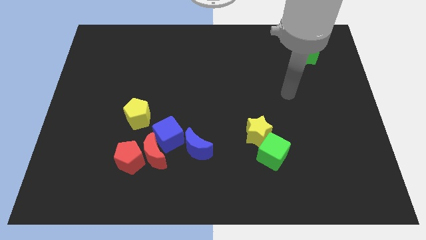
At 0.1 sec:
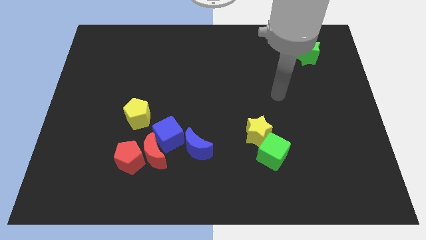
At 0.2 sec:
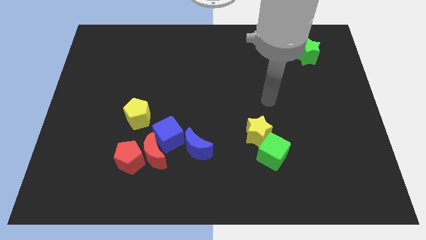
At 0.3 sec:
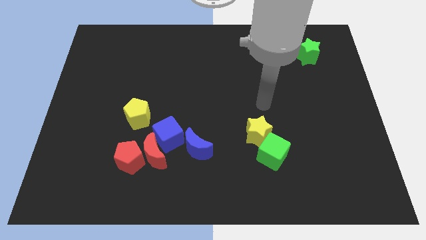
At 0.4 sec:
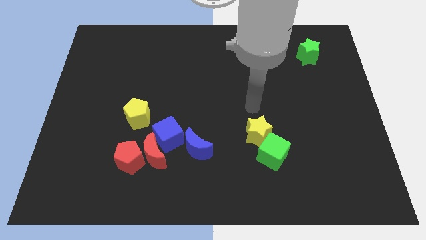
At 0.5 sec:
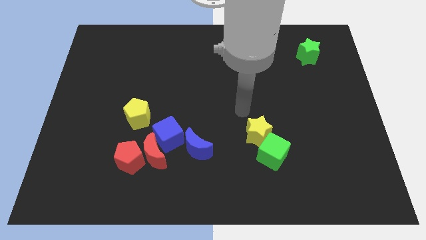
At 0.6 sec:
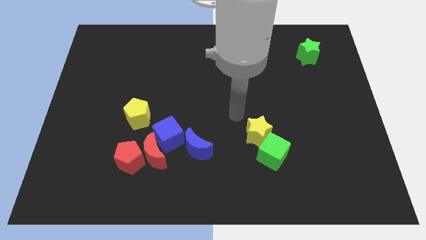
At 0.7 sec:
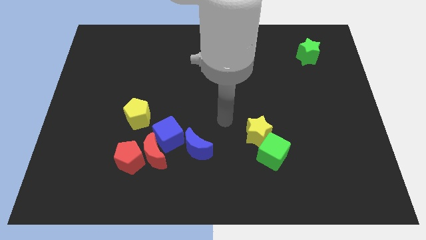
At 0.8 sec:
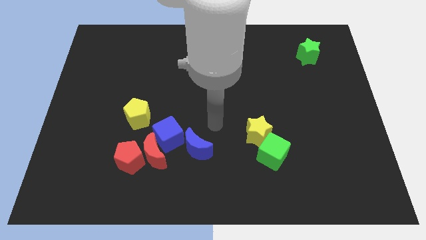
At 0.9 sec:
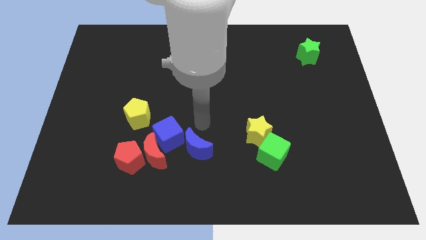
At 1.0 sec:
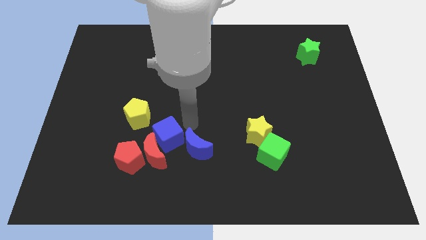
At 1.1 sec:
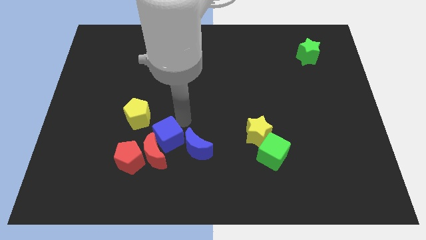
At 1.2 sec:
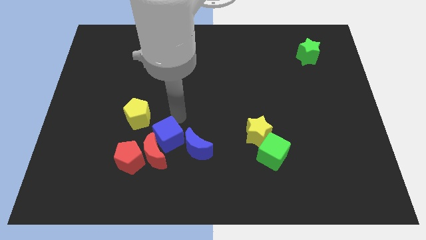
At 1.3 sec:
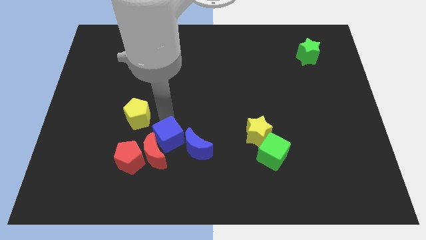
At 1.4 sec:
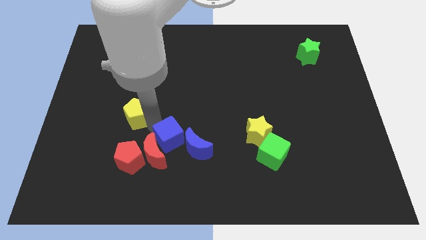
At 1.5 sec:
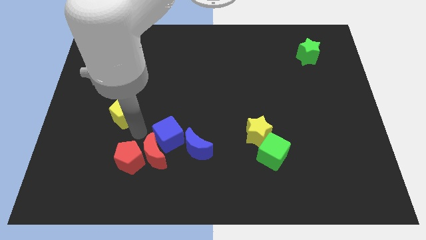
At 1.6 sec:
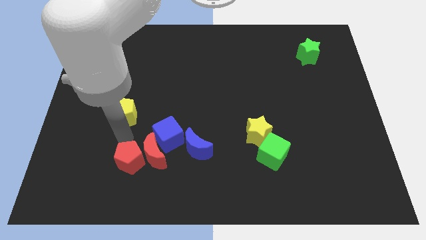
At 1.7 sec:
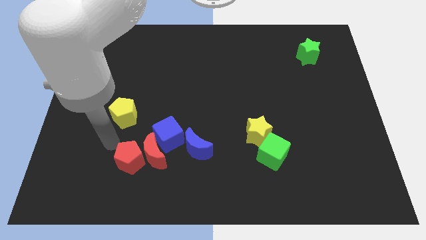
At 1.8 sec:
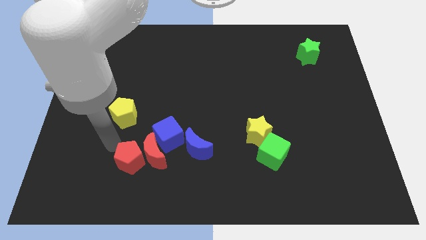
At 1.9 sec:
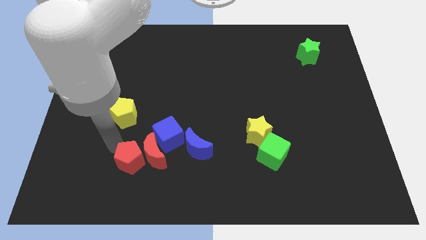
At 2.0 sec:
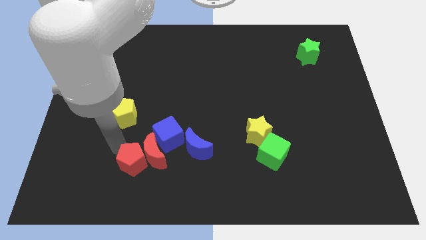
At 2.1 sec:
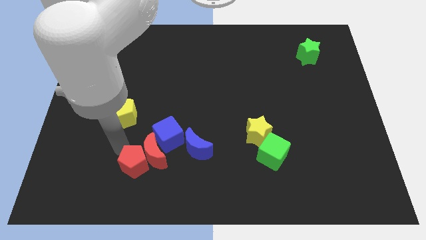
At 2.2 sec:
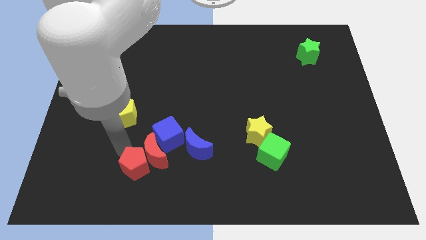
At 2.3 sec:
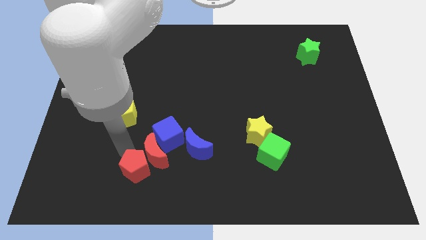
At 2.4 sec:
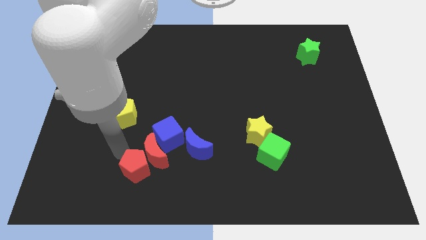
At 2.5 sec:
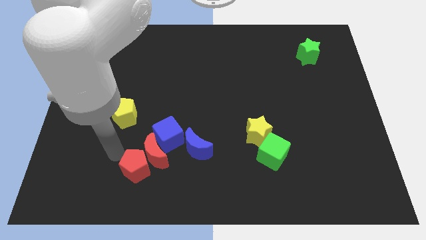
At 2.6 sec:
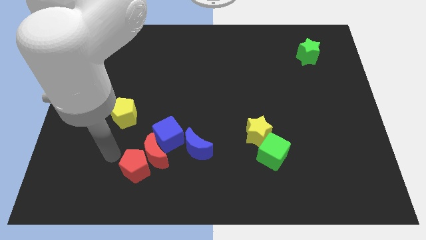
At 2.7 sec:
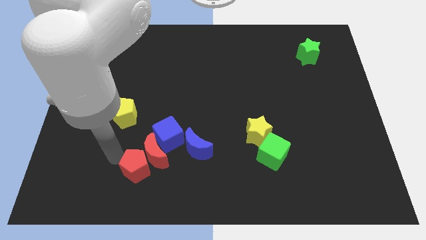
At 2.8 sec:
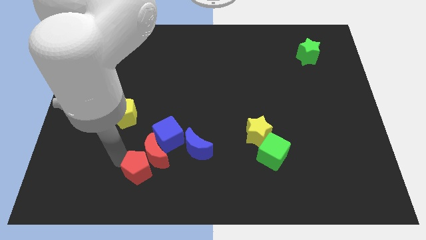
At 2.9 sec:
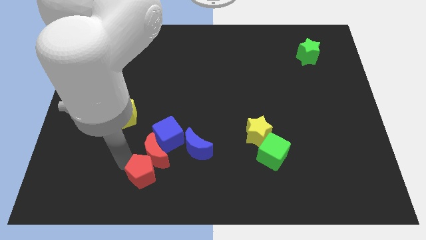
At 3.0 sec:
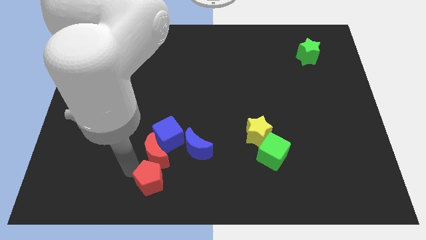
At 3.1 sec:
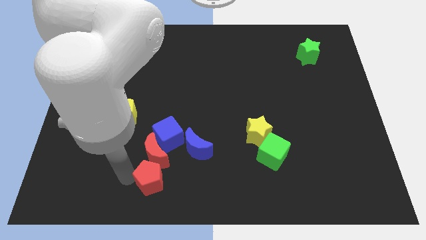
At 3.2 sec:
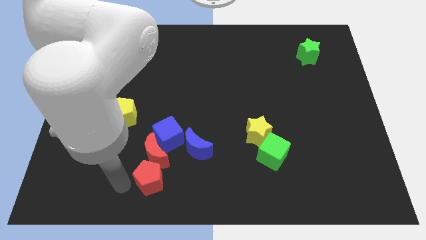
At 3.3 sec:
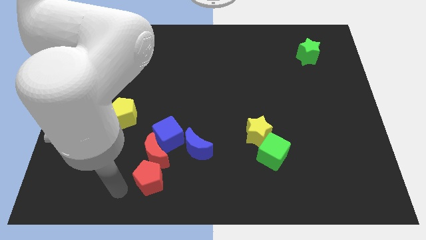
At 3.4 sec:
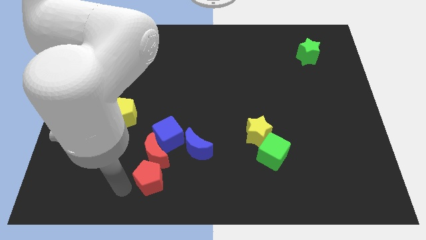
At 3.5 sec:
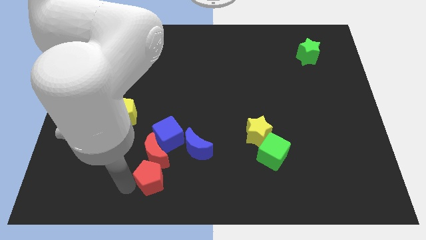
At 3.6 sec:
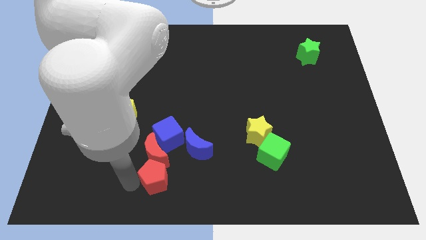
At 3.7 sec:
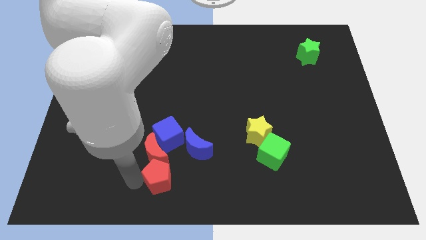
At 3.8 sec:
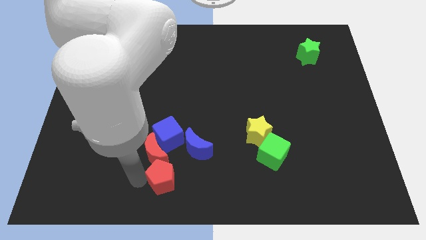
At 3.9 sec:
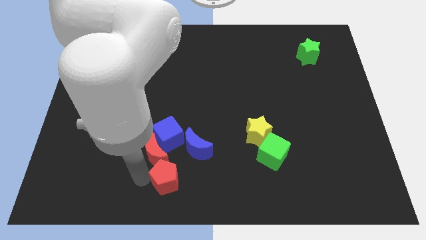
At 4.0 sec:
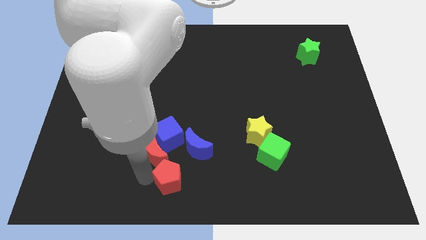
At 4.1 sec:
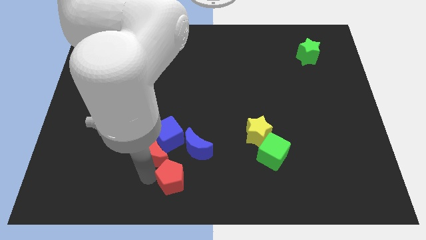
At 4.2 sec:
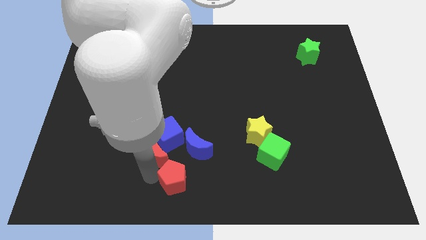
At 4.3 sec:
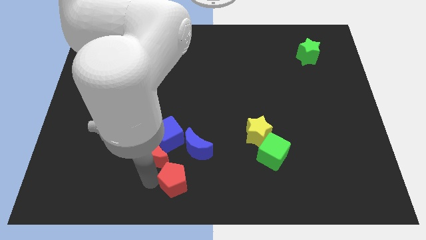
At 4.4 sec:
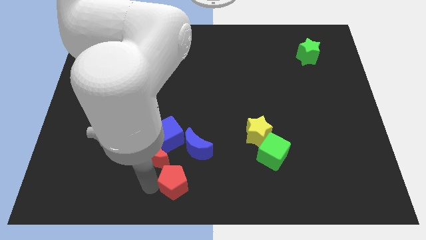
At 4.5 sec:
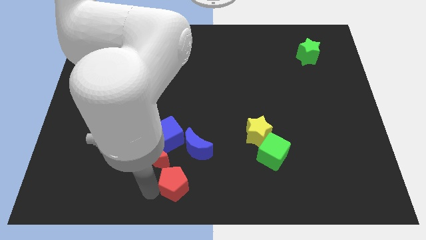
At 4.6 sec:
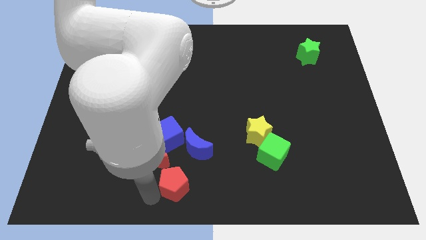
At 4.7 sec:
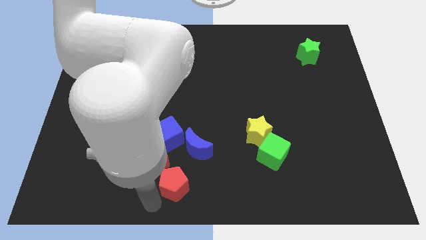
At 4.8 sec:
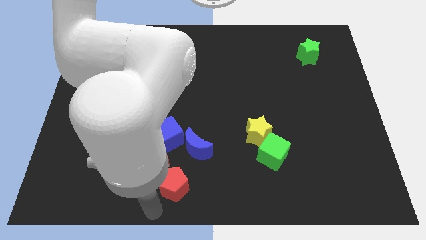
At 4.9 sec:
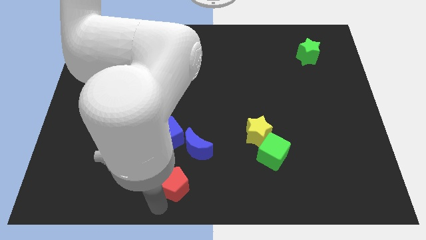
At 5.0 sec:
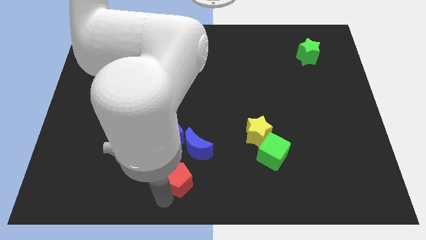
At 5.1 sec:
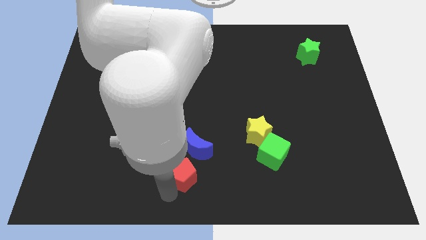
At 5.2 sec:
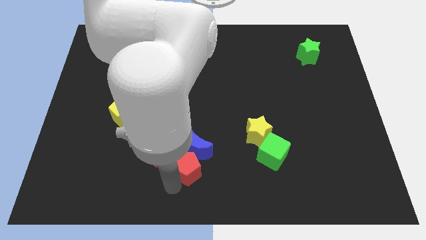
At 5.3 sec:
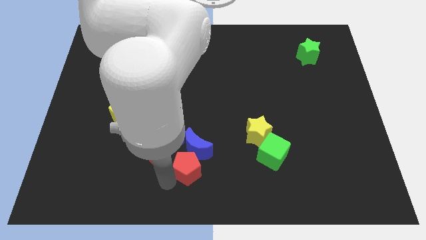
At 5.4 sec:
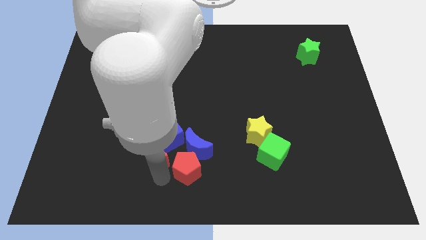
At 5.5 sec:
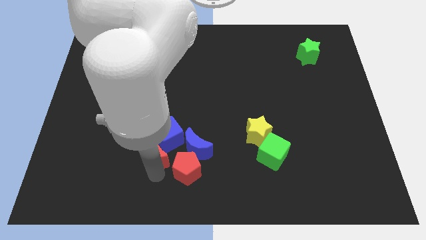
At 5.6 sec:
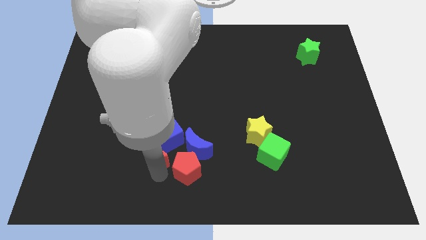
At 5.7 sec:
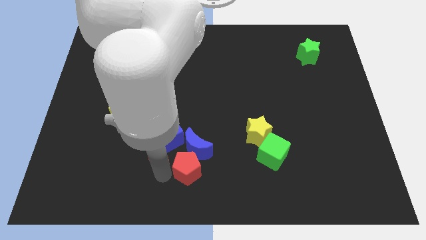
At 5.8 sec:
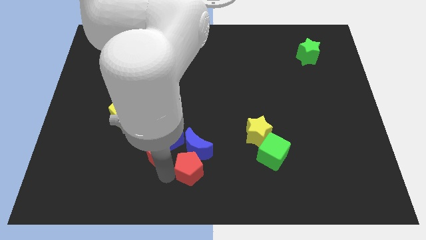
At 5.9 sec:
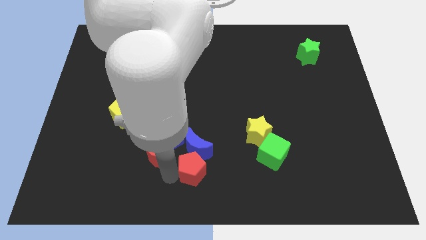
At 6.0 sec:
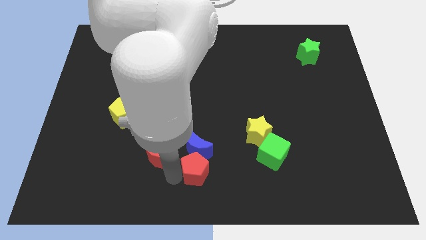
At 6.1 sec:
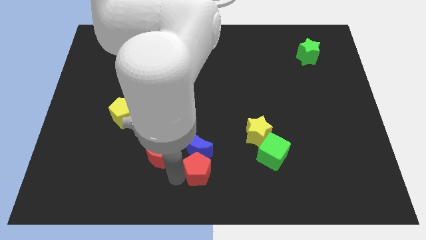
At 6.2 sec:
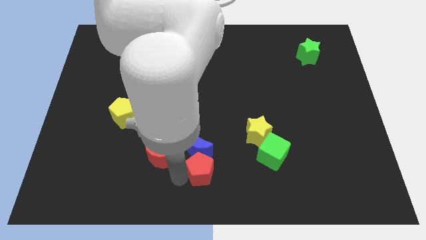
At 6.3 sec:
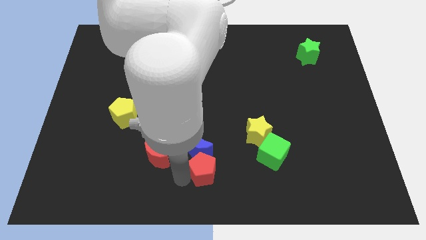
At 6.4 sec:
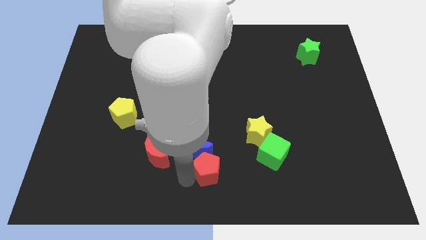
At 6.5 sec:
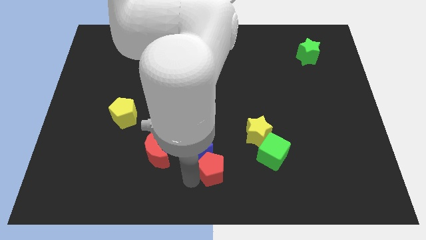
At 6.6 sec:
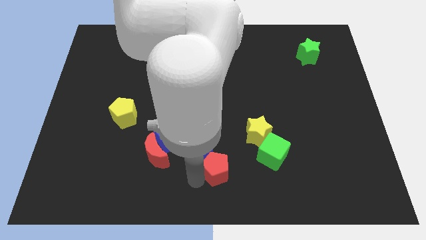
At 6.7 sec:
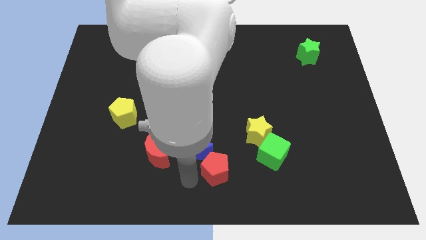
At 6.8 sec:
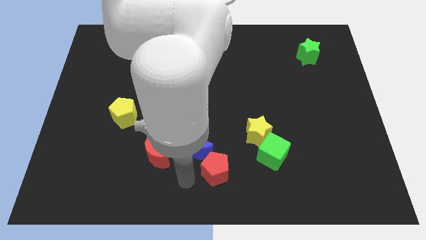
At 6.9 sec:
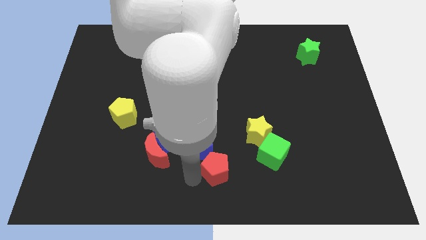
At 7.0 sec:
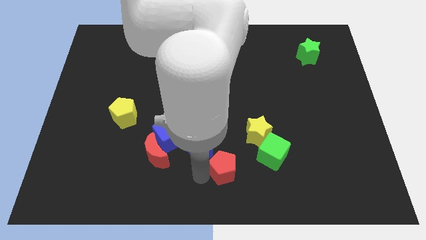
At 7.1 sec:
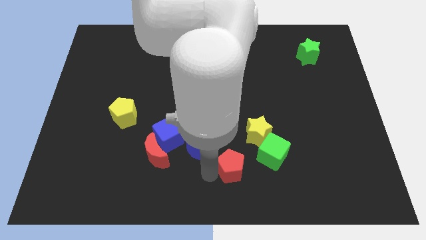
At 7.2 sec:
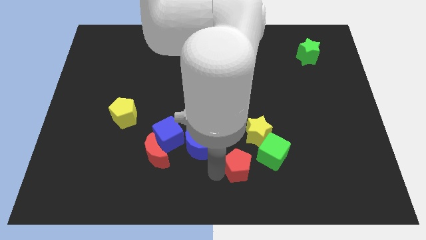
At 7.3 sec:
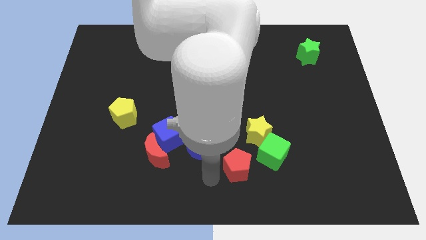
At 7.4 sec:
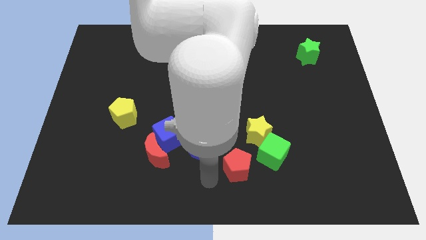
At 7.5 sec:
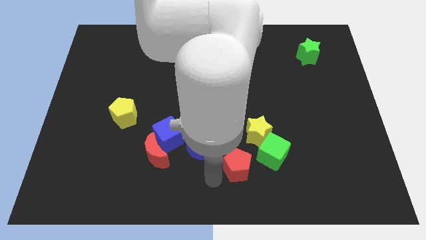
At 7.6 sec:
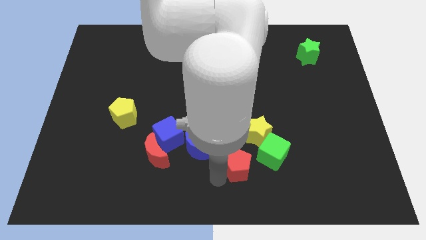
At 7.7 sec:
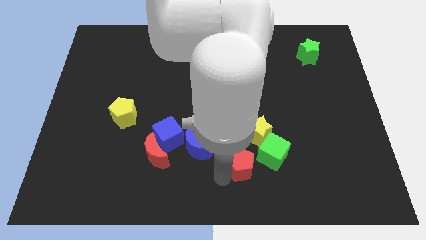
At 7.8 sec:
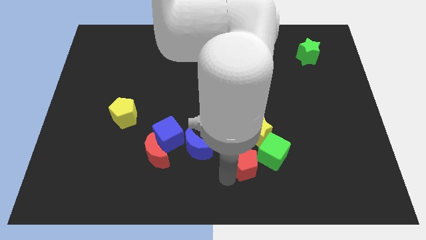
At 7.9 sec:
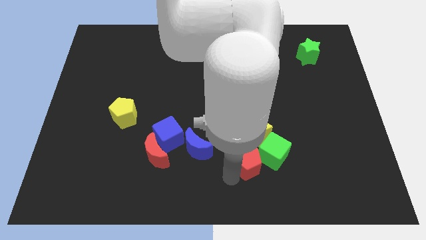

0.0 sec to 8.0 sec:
slide the red pentagon towards the green cube

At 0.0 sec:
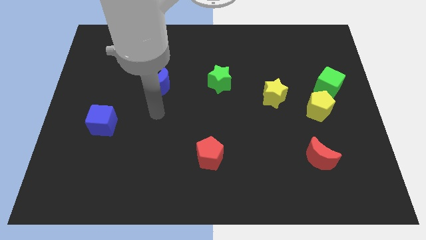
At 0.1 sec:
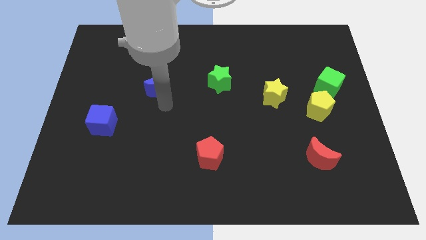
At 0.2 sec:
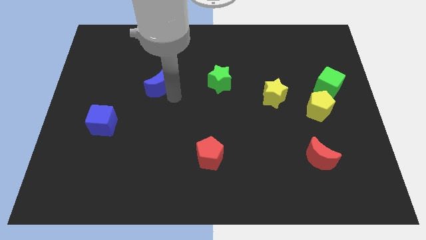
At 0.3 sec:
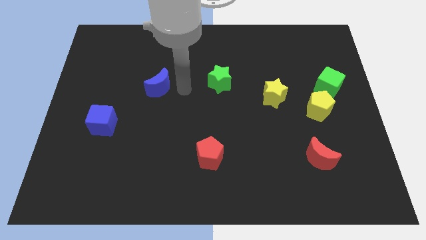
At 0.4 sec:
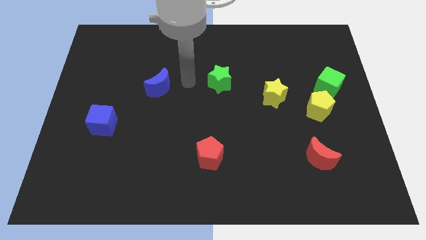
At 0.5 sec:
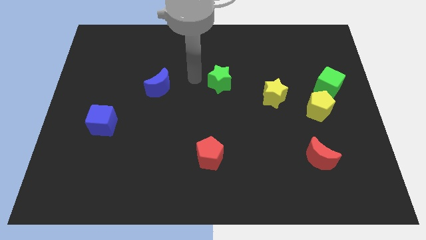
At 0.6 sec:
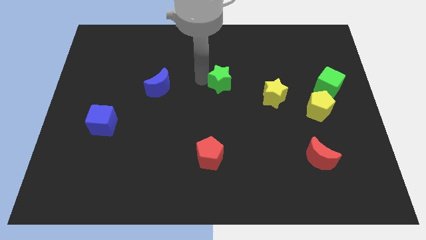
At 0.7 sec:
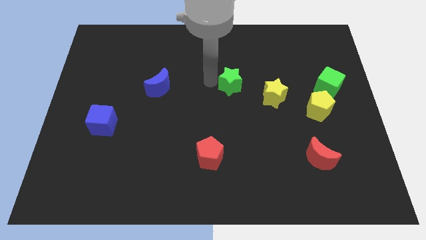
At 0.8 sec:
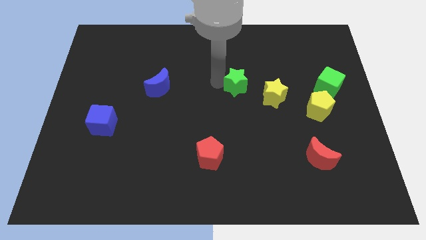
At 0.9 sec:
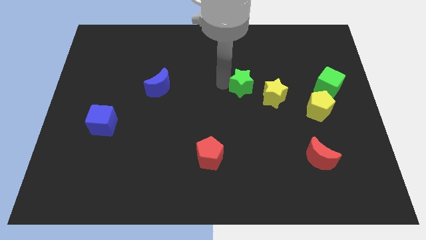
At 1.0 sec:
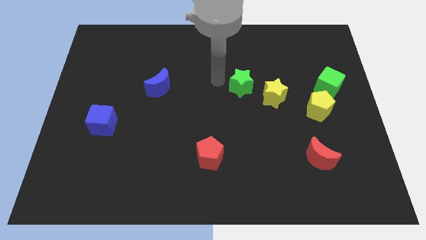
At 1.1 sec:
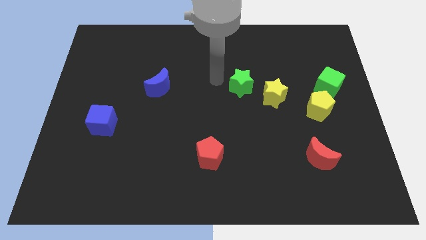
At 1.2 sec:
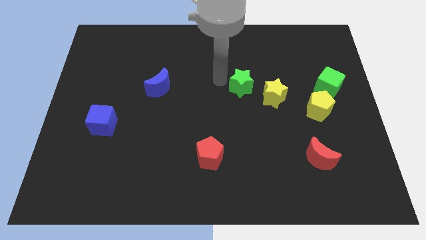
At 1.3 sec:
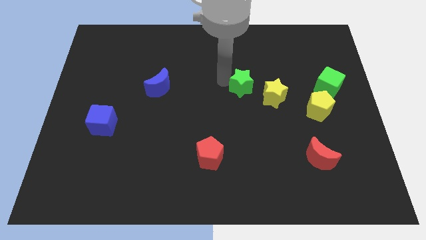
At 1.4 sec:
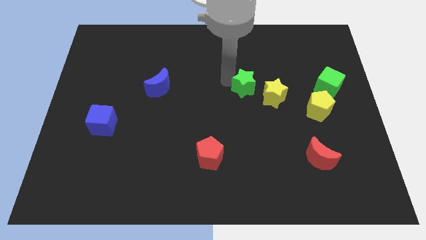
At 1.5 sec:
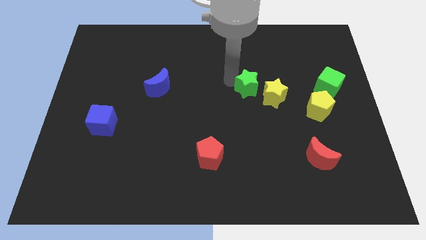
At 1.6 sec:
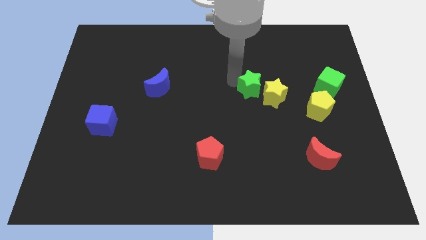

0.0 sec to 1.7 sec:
slide the green star close to the yellow star
